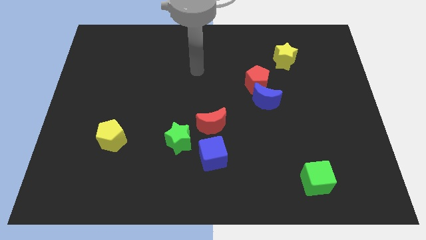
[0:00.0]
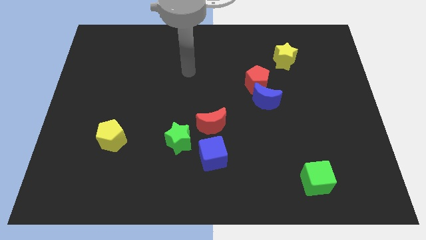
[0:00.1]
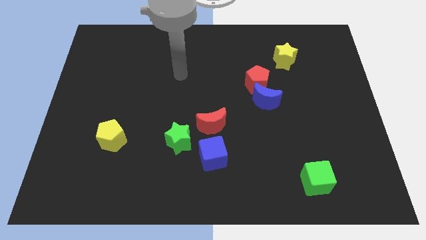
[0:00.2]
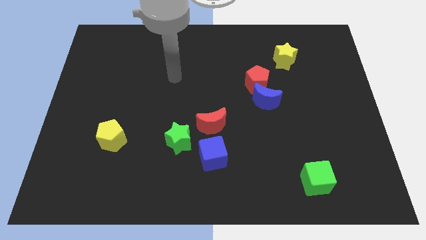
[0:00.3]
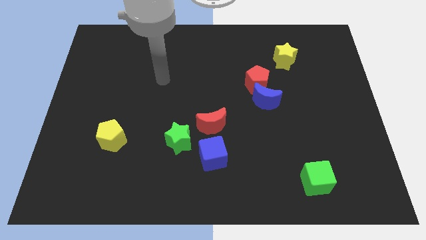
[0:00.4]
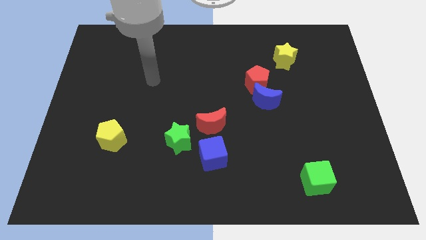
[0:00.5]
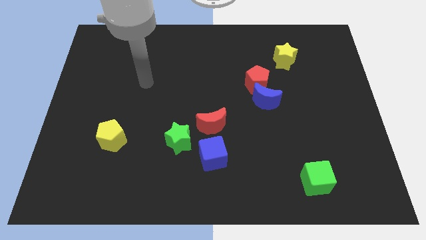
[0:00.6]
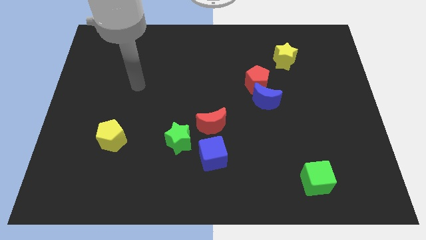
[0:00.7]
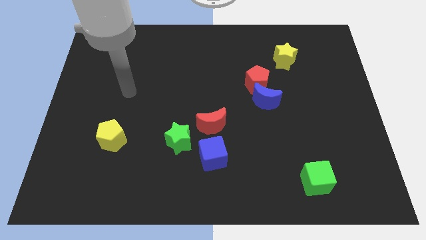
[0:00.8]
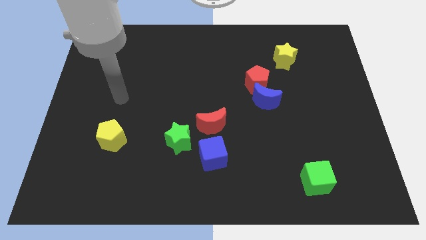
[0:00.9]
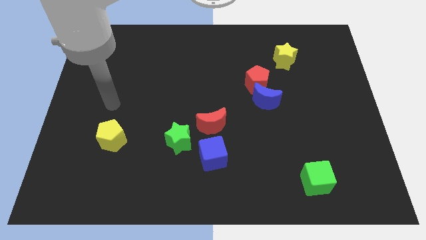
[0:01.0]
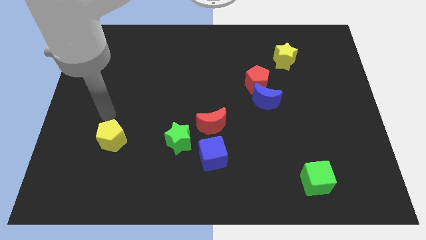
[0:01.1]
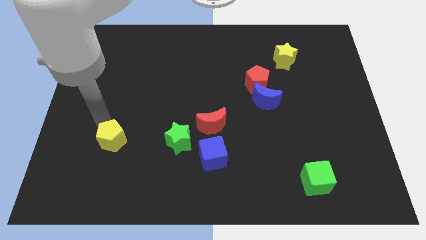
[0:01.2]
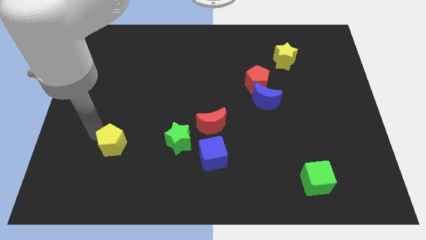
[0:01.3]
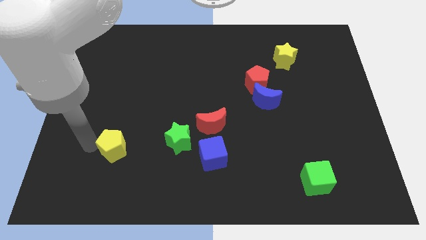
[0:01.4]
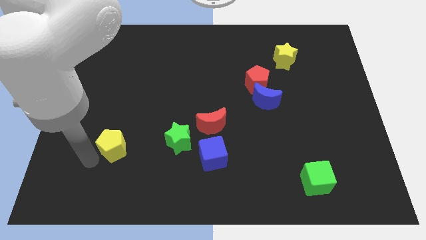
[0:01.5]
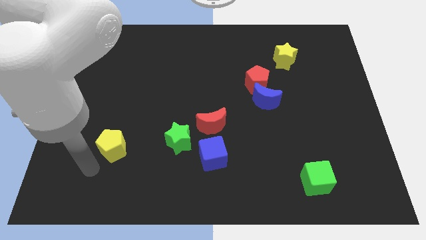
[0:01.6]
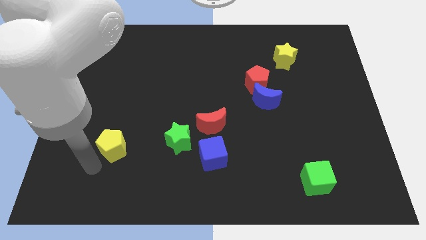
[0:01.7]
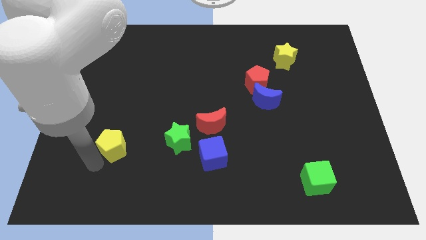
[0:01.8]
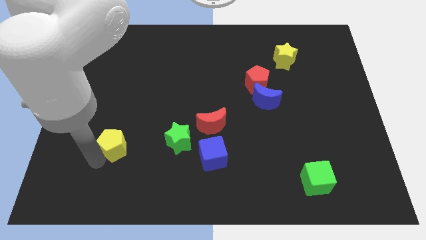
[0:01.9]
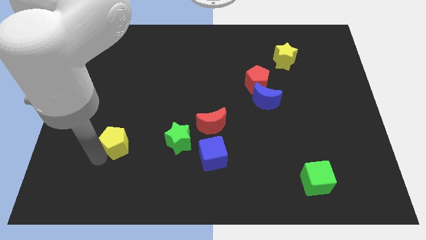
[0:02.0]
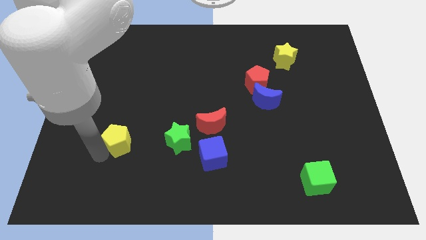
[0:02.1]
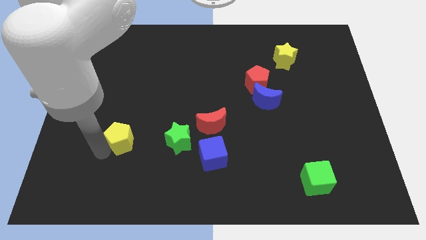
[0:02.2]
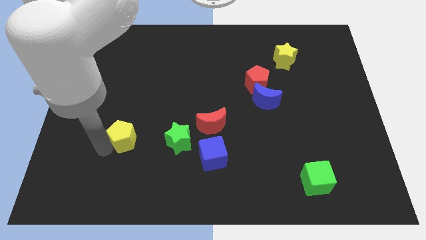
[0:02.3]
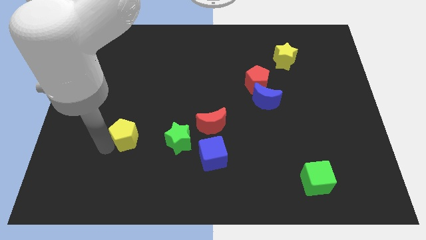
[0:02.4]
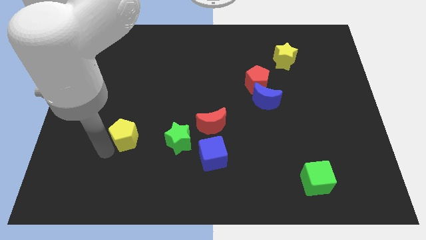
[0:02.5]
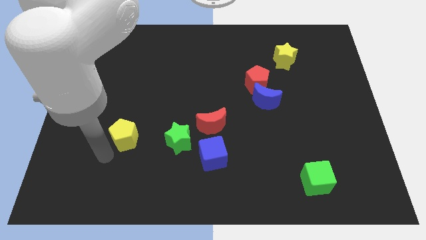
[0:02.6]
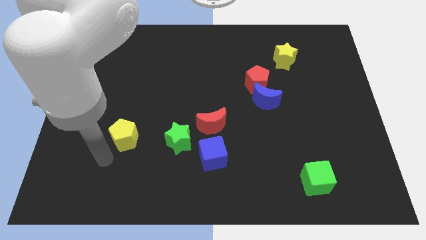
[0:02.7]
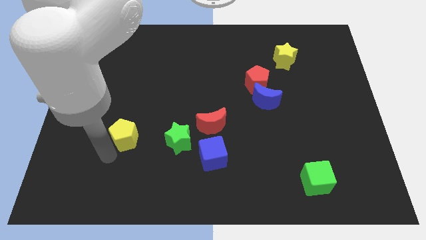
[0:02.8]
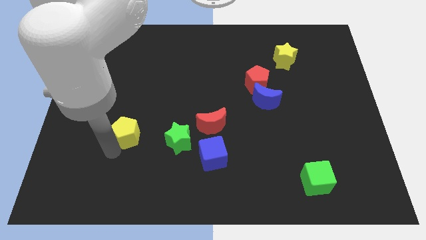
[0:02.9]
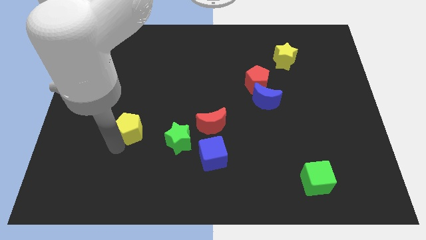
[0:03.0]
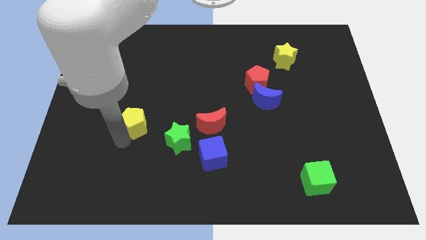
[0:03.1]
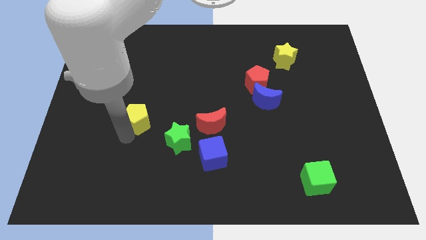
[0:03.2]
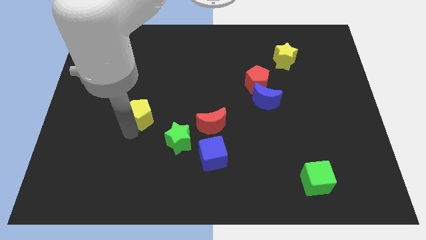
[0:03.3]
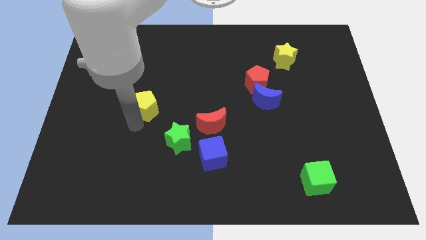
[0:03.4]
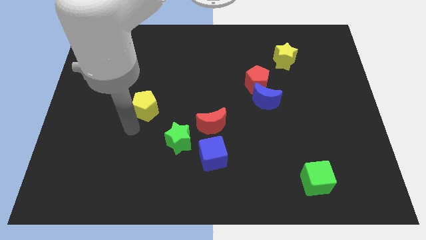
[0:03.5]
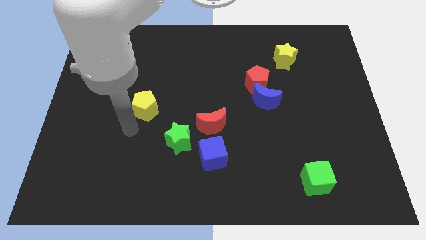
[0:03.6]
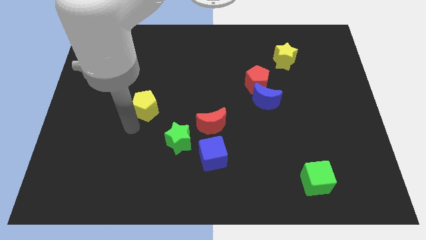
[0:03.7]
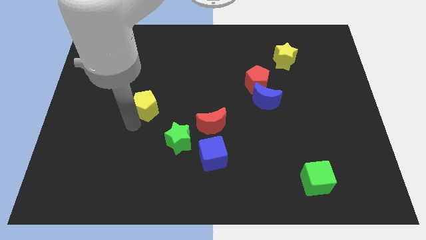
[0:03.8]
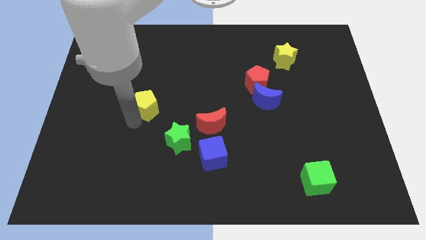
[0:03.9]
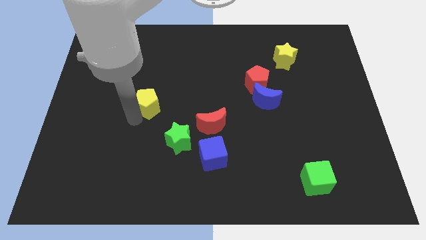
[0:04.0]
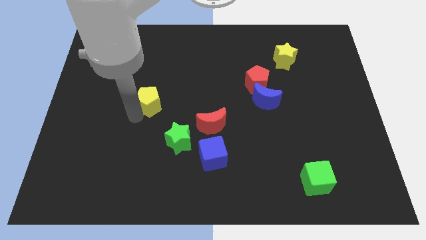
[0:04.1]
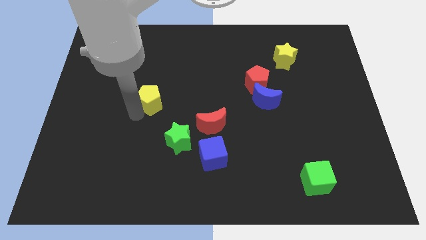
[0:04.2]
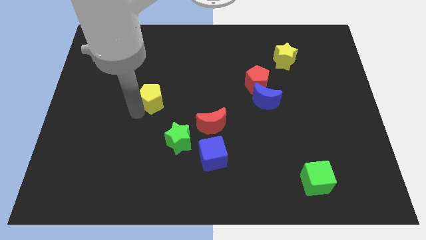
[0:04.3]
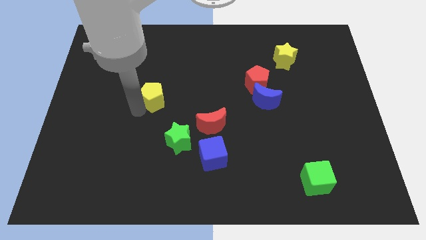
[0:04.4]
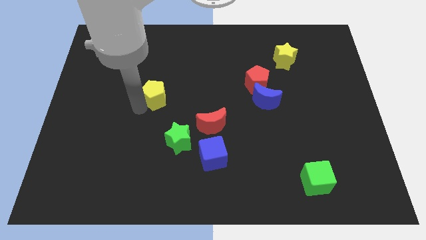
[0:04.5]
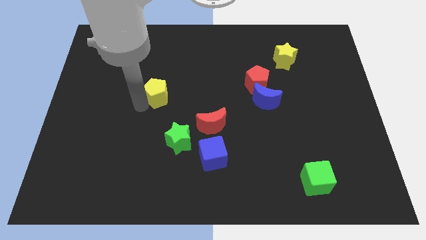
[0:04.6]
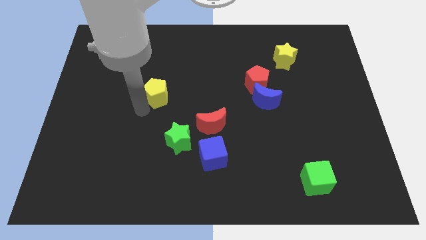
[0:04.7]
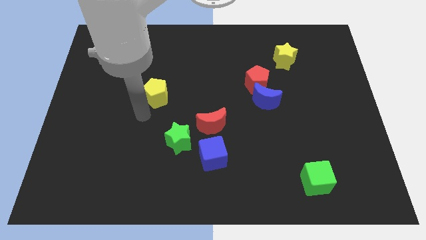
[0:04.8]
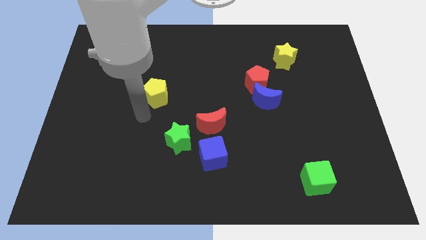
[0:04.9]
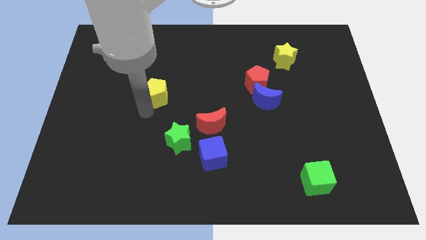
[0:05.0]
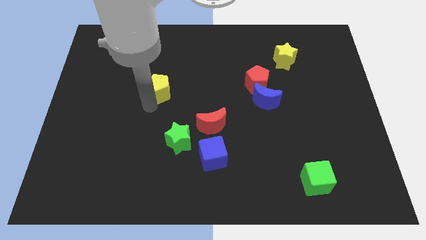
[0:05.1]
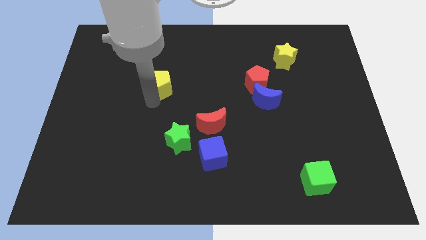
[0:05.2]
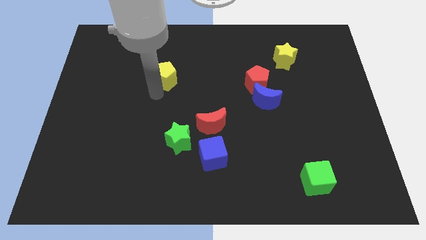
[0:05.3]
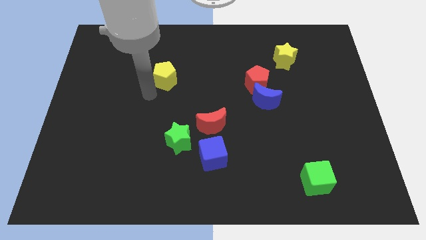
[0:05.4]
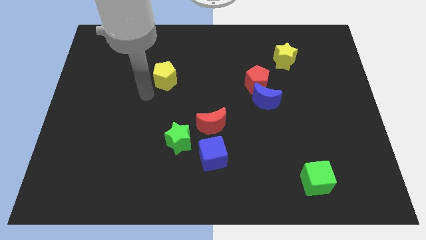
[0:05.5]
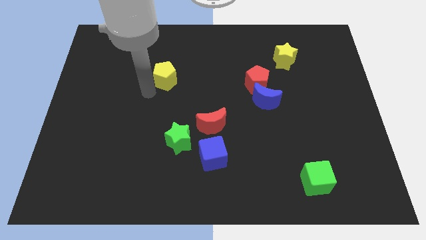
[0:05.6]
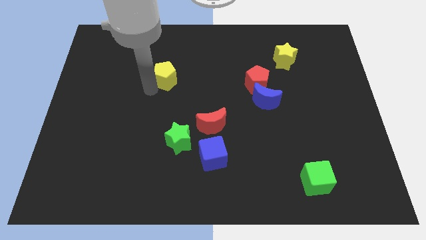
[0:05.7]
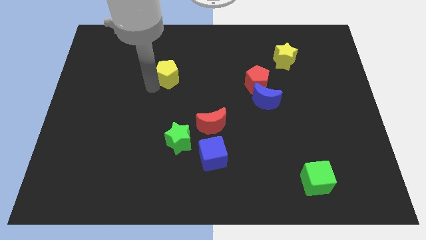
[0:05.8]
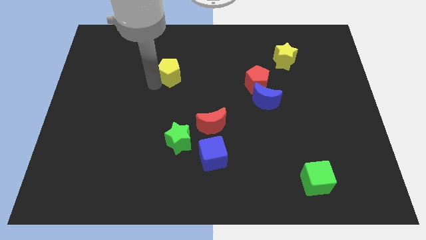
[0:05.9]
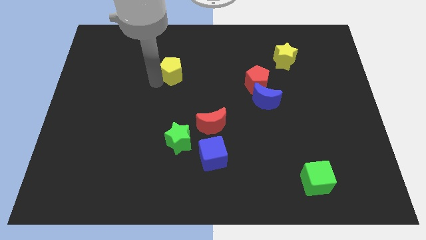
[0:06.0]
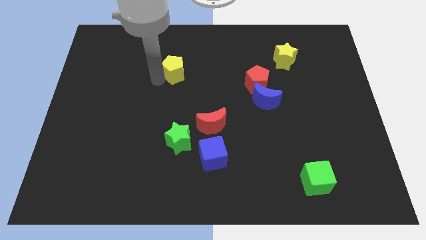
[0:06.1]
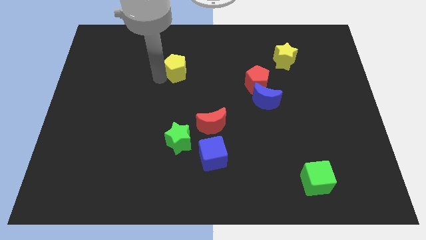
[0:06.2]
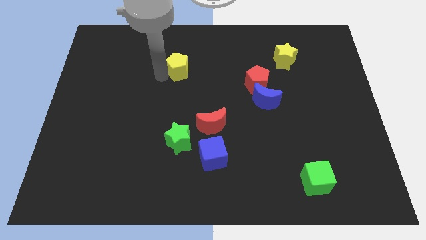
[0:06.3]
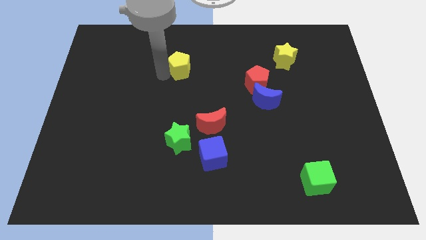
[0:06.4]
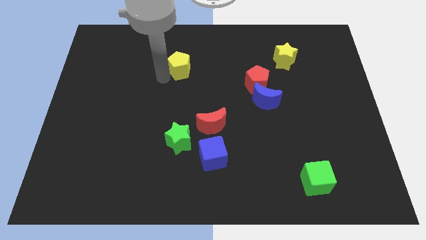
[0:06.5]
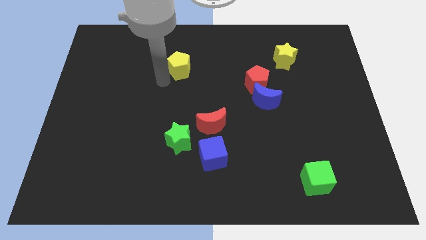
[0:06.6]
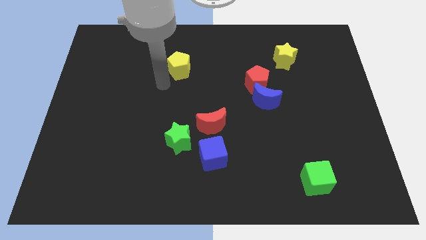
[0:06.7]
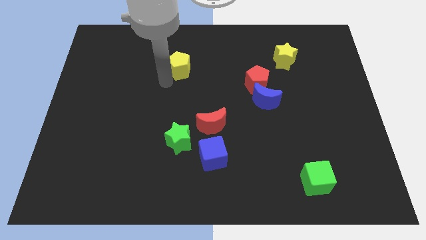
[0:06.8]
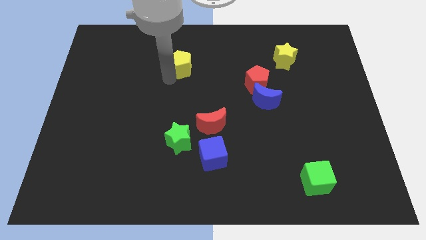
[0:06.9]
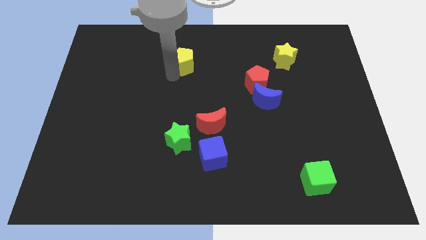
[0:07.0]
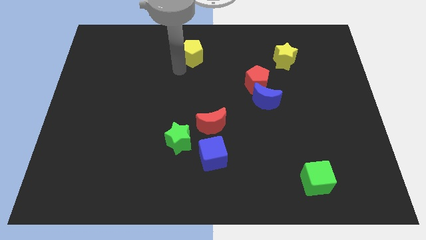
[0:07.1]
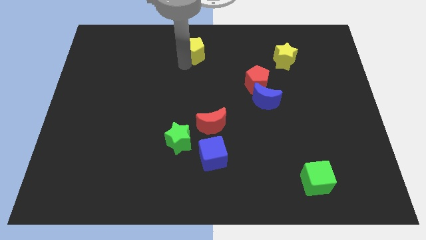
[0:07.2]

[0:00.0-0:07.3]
push the yellow pentagon to the top side
